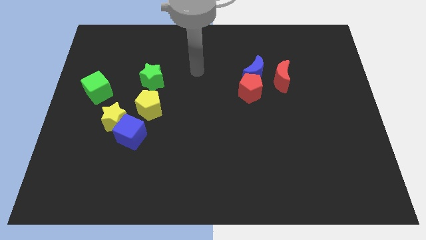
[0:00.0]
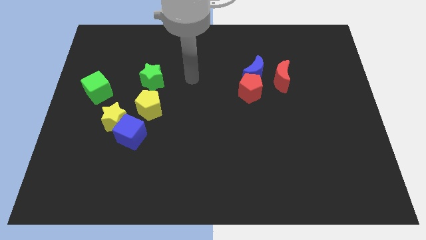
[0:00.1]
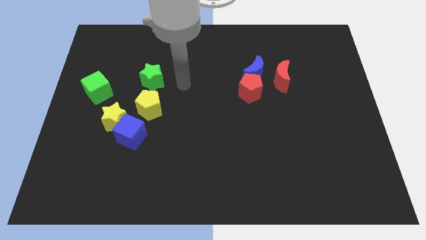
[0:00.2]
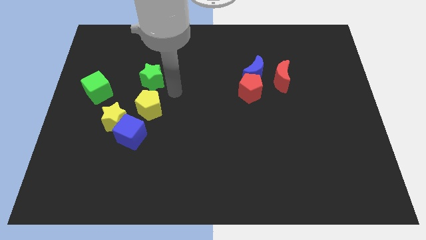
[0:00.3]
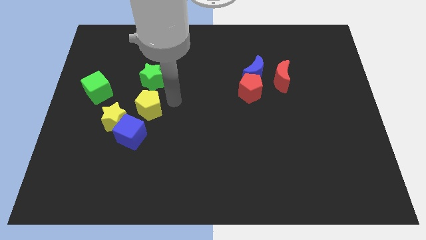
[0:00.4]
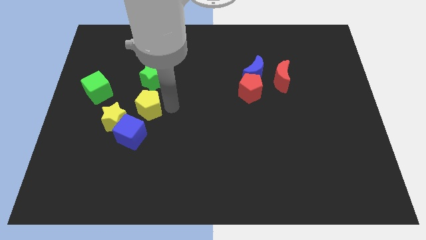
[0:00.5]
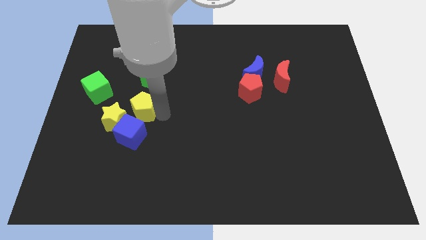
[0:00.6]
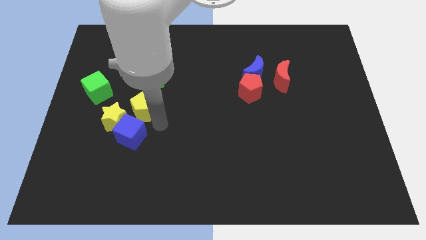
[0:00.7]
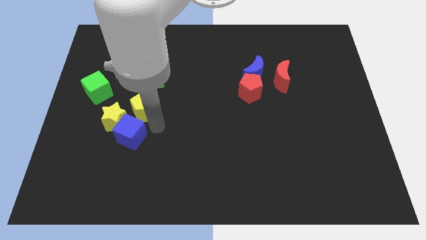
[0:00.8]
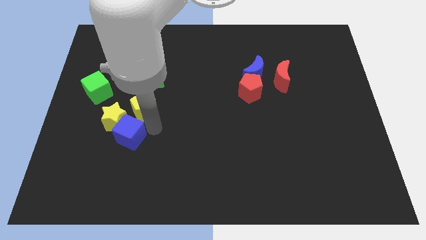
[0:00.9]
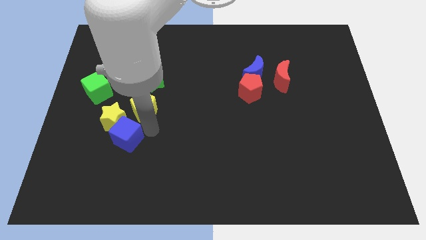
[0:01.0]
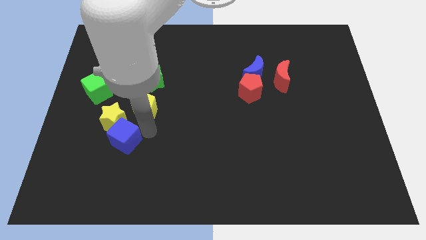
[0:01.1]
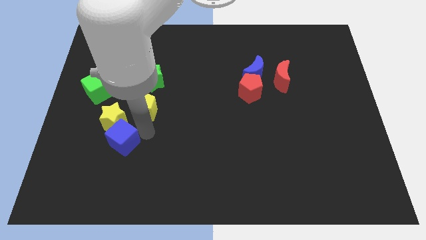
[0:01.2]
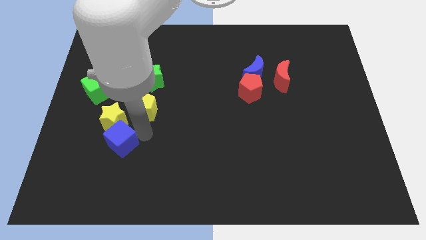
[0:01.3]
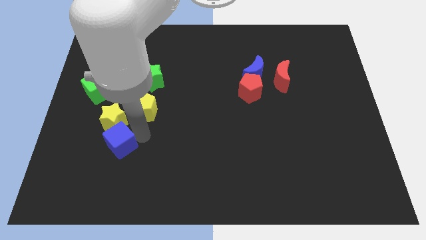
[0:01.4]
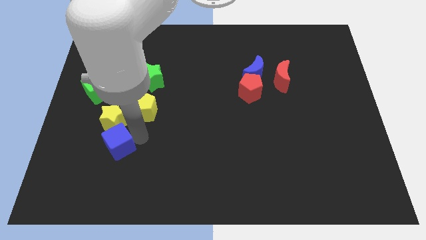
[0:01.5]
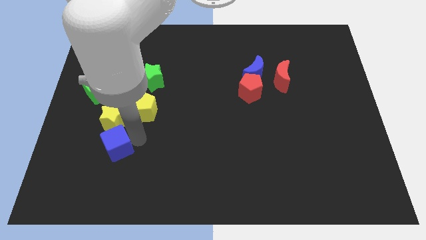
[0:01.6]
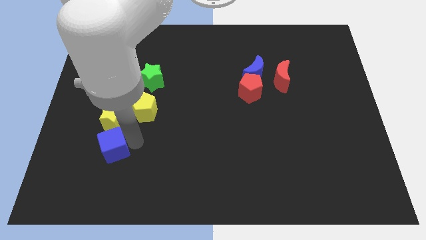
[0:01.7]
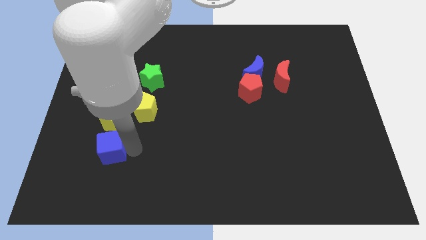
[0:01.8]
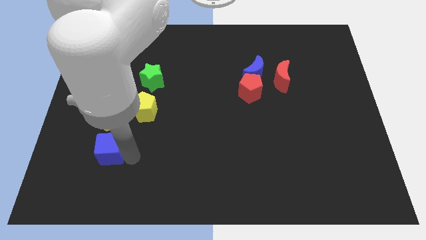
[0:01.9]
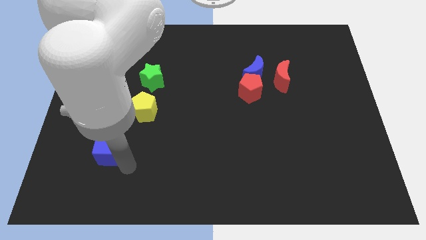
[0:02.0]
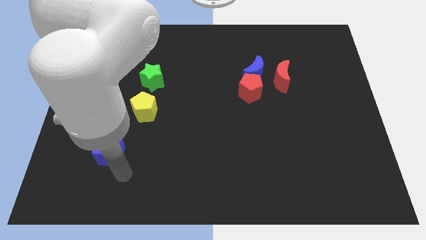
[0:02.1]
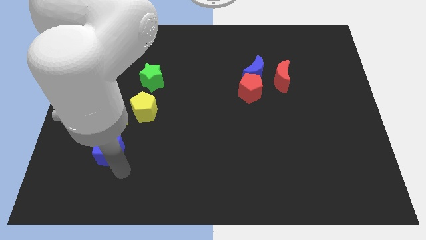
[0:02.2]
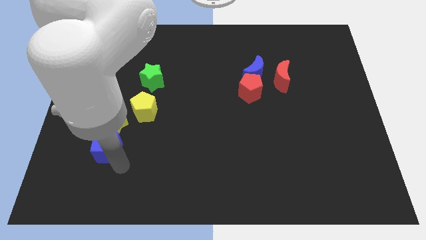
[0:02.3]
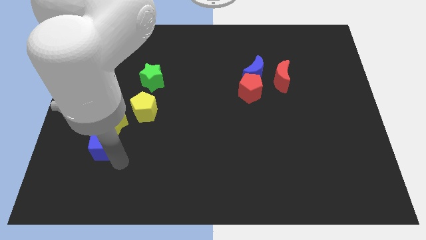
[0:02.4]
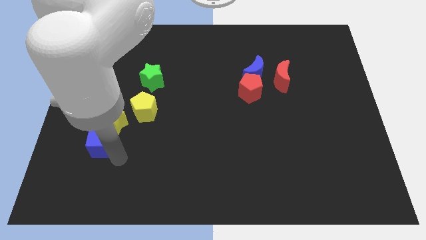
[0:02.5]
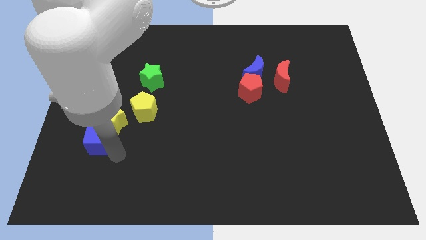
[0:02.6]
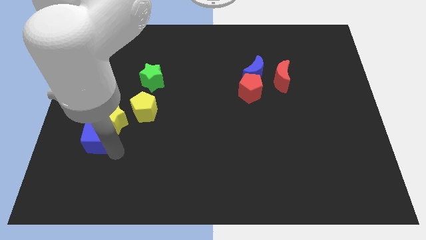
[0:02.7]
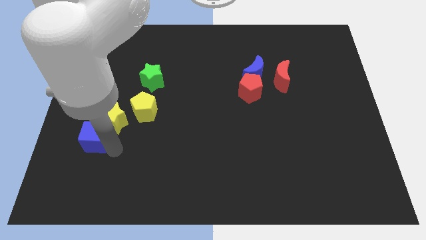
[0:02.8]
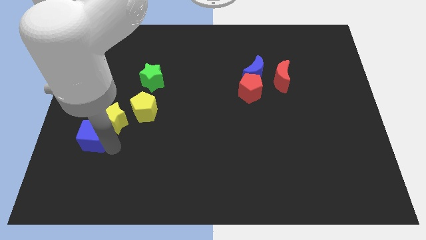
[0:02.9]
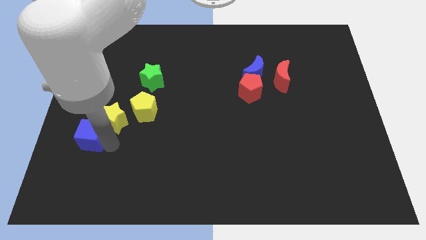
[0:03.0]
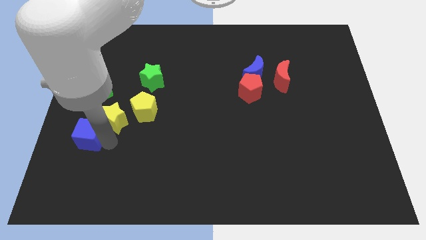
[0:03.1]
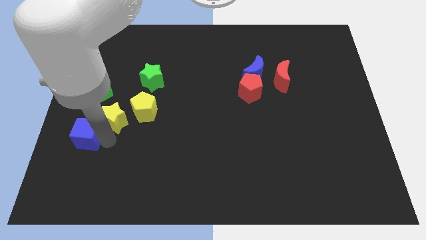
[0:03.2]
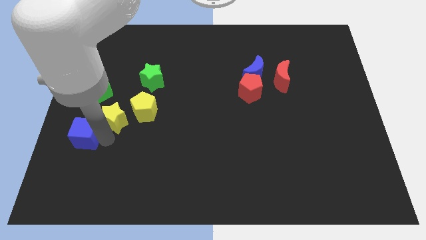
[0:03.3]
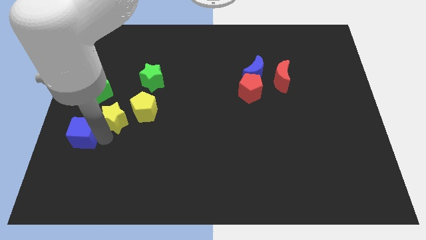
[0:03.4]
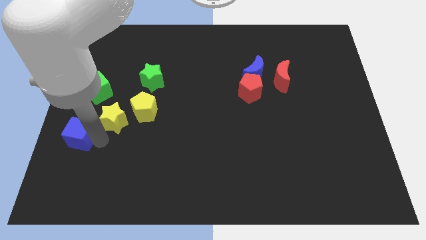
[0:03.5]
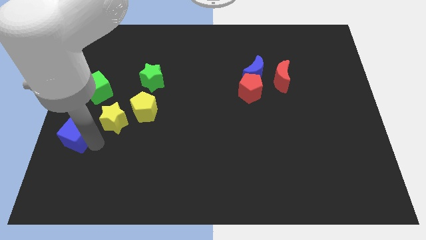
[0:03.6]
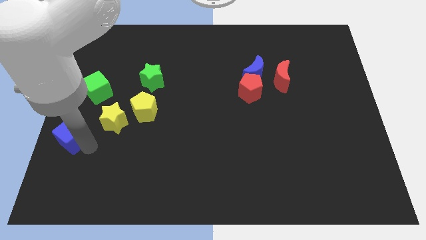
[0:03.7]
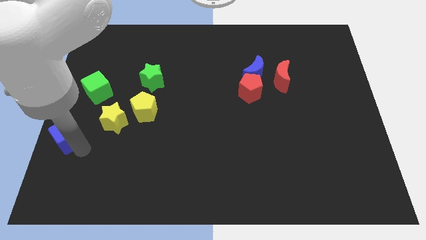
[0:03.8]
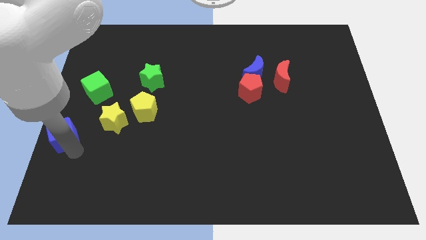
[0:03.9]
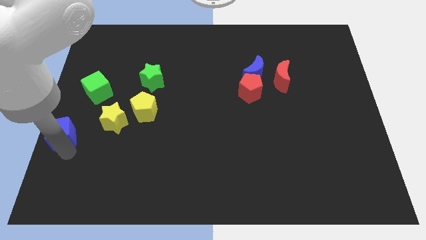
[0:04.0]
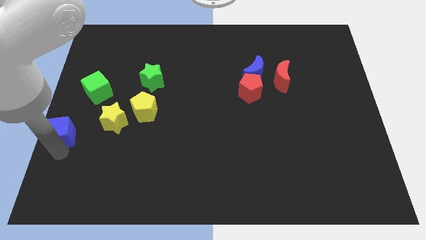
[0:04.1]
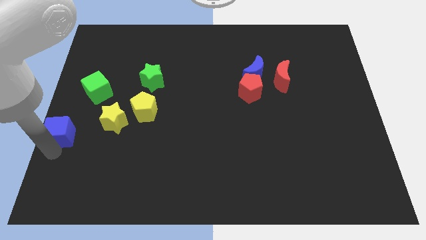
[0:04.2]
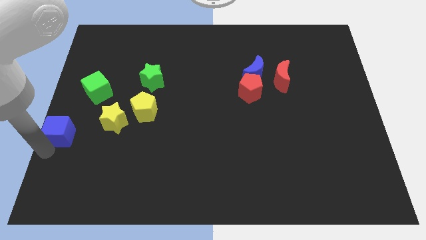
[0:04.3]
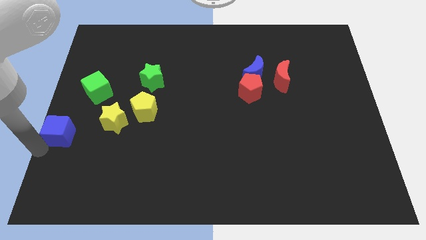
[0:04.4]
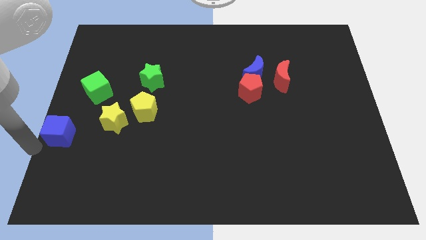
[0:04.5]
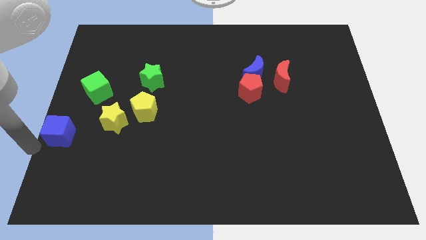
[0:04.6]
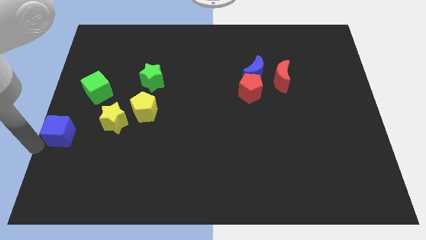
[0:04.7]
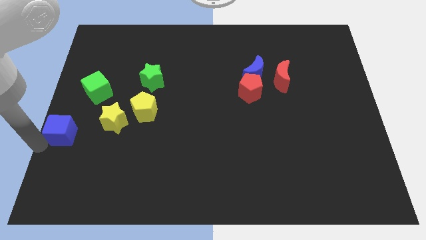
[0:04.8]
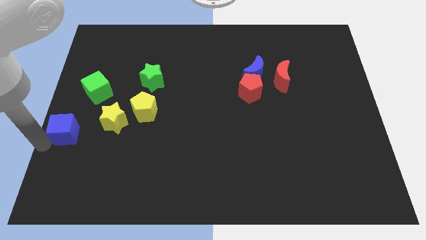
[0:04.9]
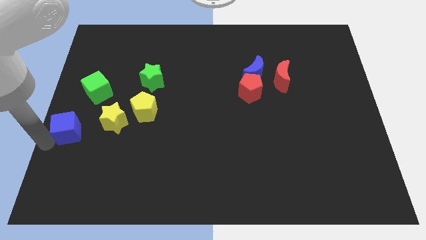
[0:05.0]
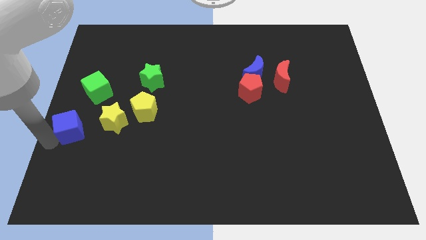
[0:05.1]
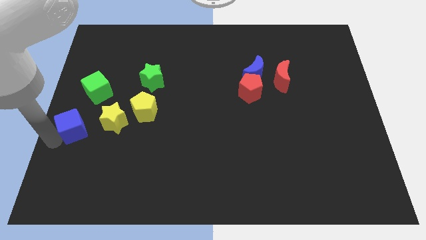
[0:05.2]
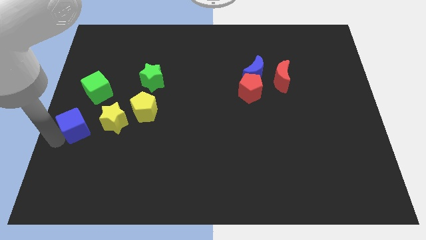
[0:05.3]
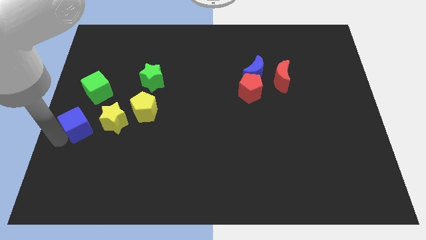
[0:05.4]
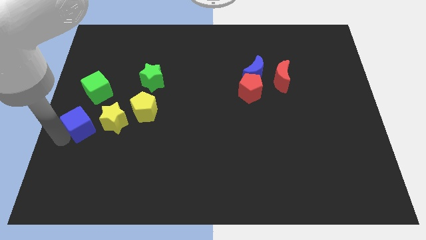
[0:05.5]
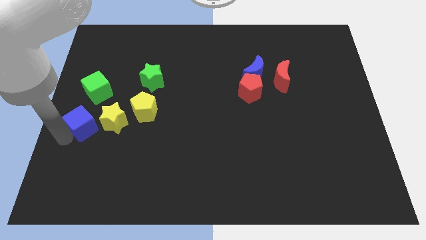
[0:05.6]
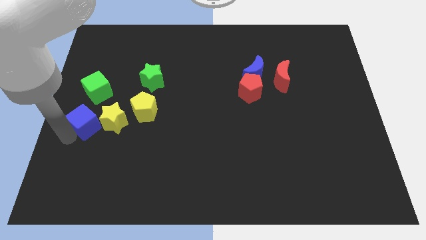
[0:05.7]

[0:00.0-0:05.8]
push the blue cube to the left of the yellow pentagon

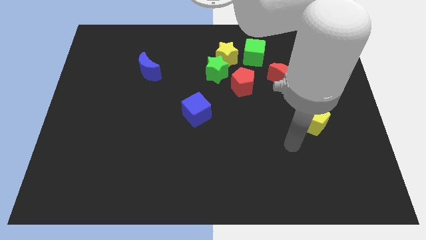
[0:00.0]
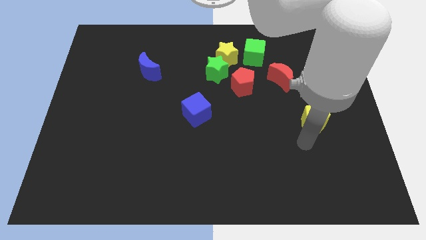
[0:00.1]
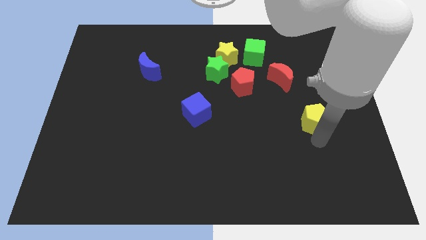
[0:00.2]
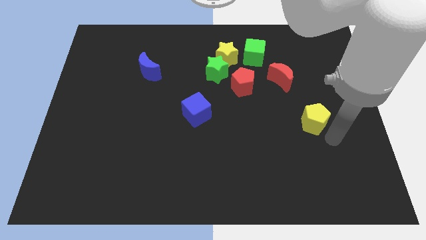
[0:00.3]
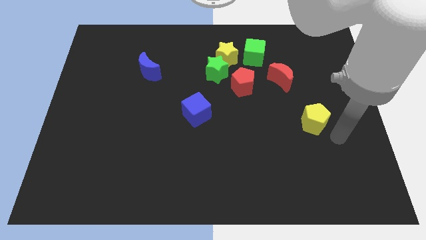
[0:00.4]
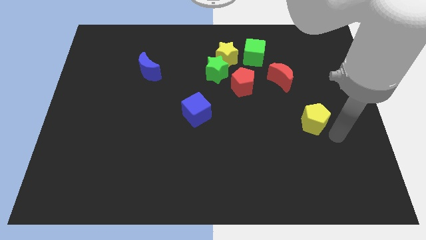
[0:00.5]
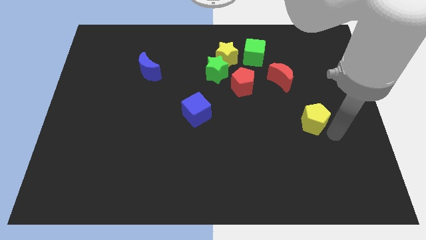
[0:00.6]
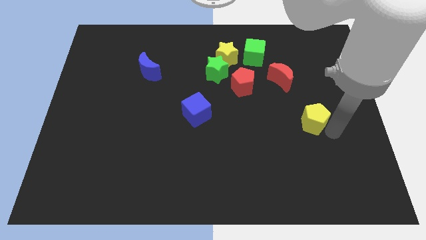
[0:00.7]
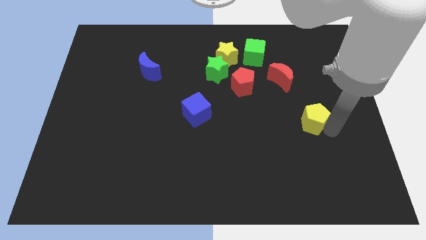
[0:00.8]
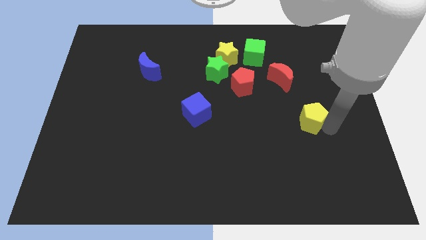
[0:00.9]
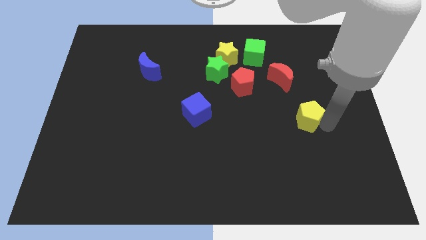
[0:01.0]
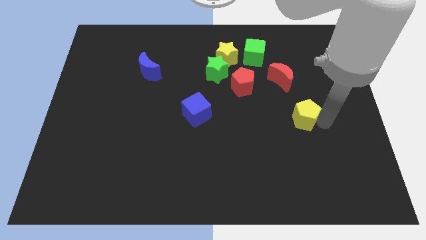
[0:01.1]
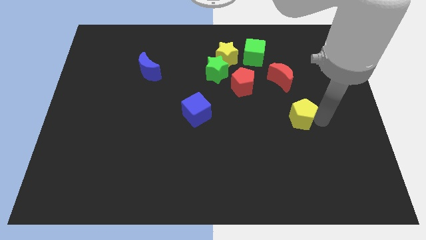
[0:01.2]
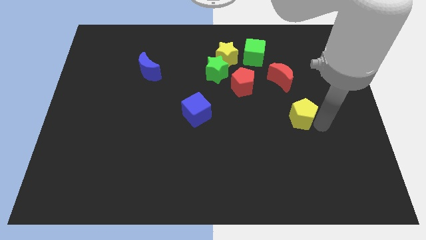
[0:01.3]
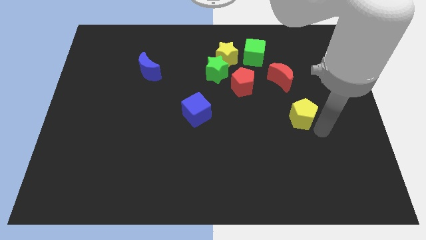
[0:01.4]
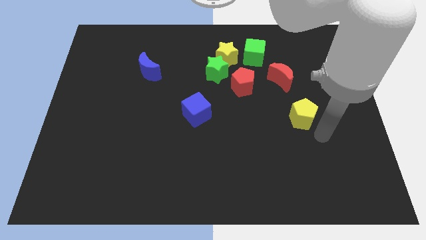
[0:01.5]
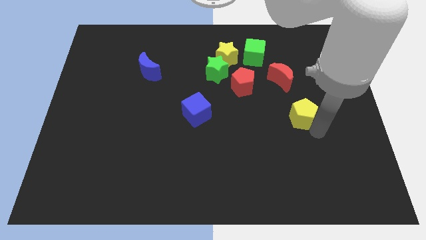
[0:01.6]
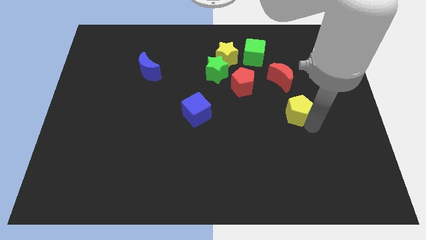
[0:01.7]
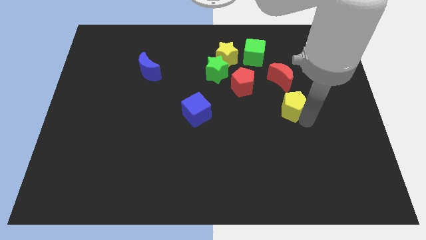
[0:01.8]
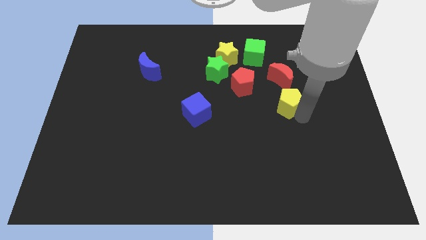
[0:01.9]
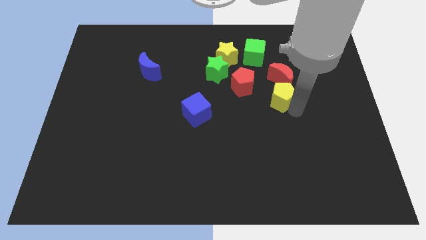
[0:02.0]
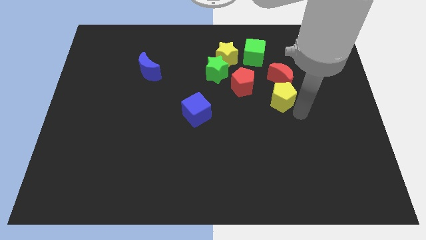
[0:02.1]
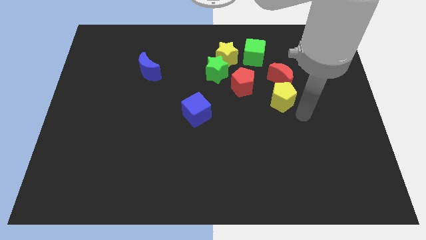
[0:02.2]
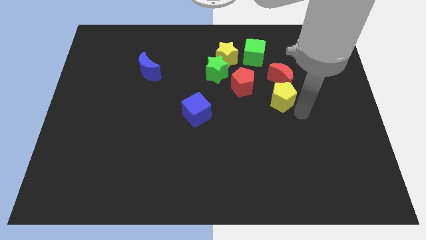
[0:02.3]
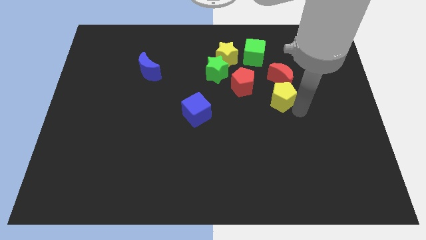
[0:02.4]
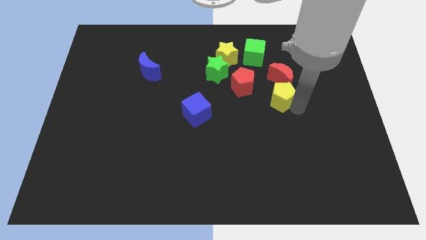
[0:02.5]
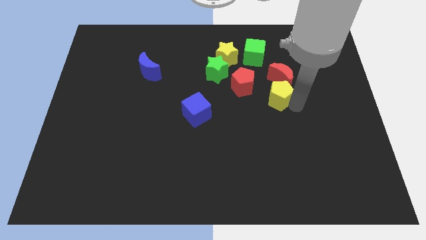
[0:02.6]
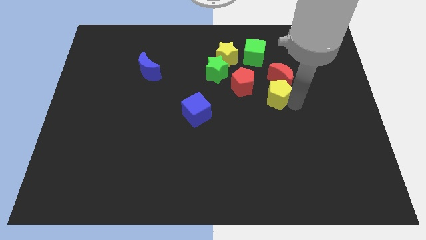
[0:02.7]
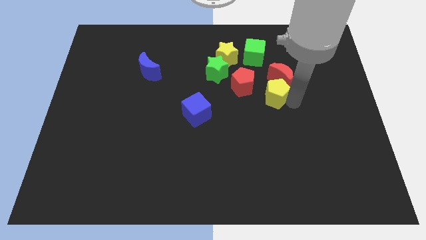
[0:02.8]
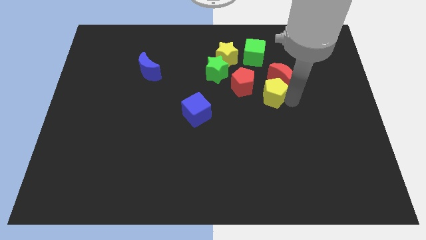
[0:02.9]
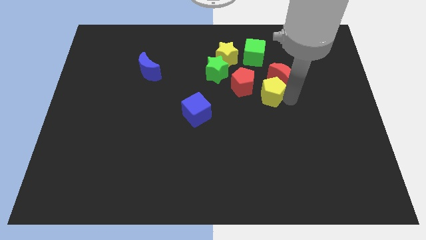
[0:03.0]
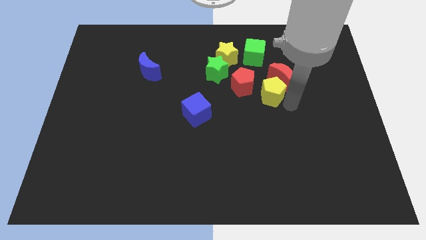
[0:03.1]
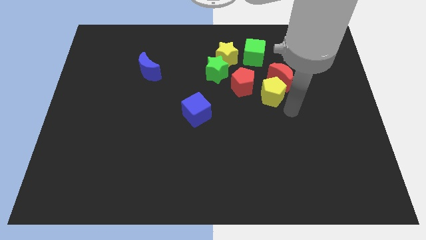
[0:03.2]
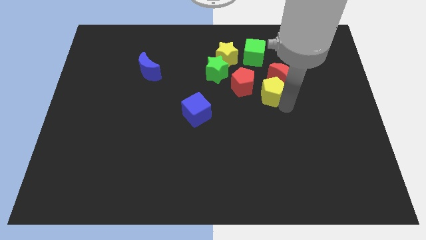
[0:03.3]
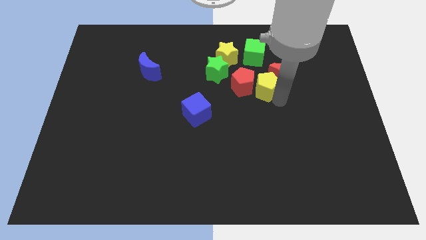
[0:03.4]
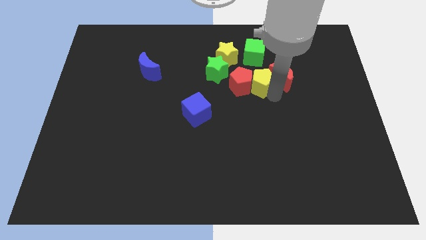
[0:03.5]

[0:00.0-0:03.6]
put the yellow pentagon to the bottom right of the yellow star
